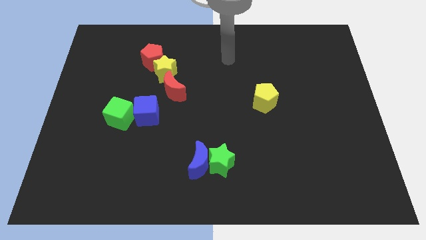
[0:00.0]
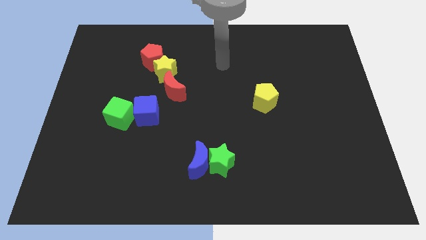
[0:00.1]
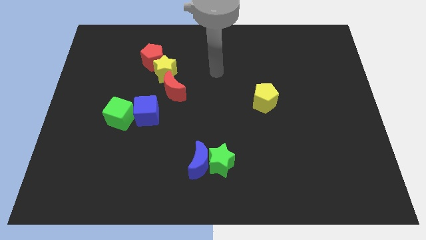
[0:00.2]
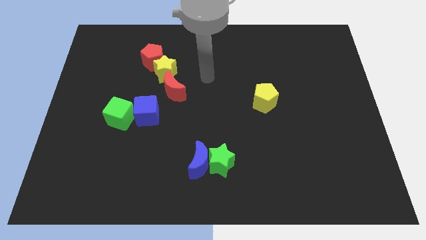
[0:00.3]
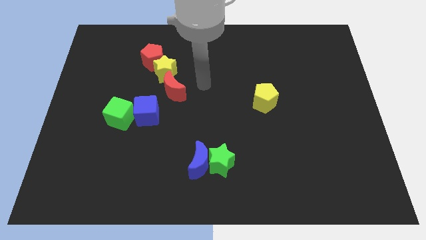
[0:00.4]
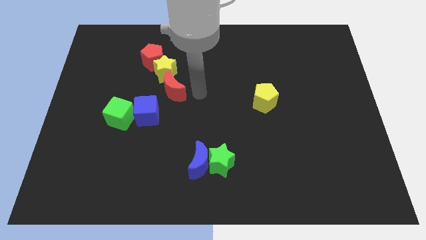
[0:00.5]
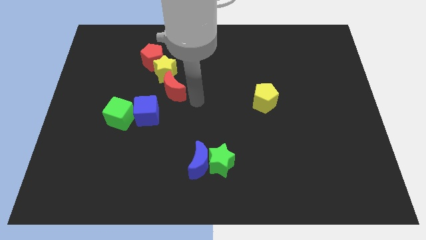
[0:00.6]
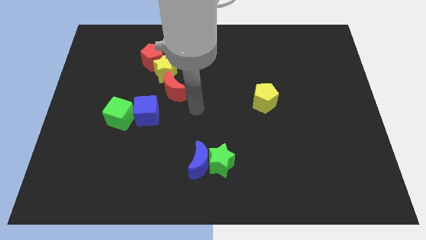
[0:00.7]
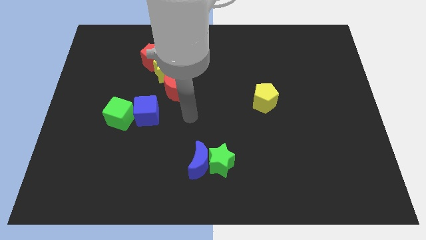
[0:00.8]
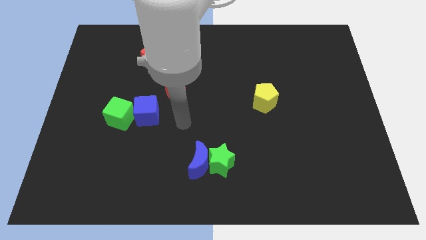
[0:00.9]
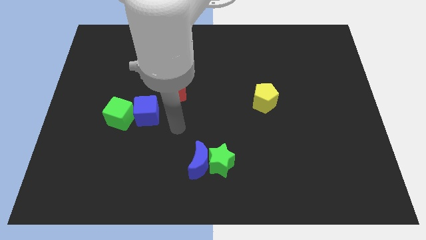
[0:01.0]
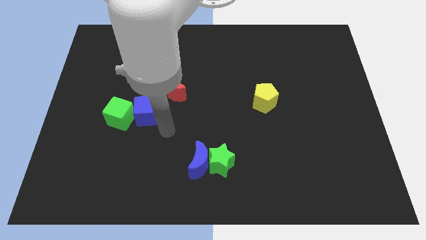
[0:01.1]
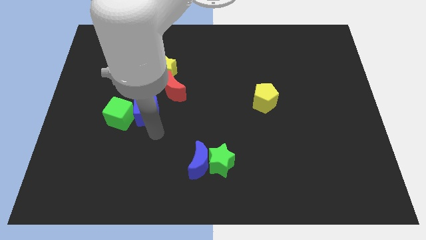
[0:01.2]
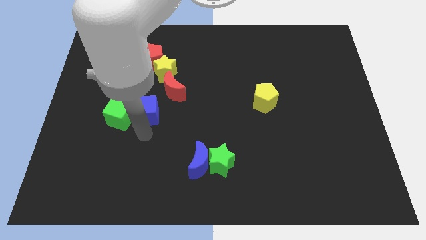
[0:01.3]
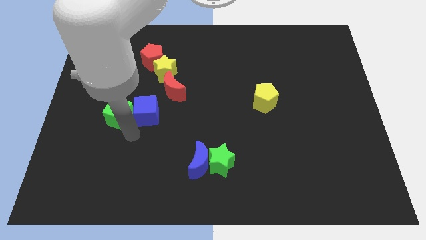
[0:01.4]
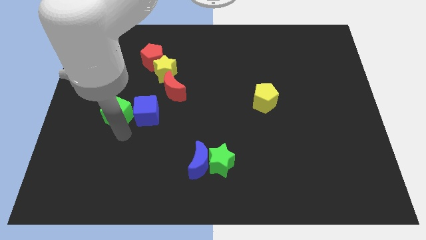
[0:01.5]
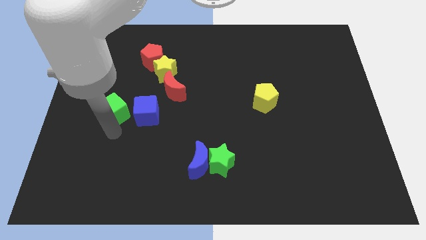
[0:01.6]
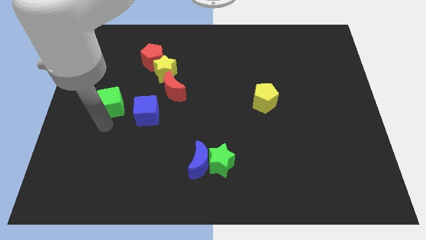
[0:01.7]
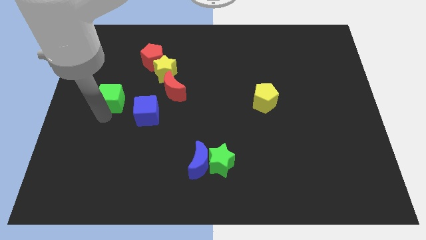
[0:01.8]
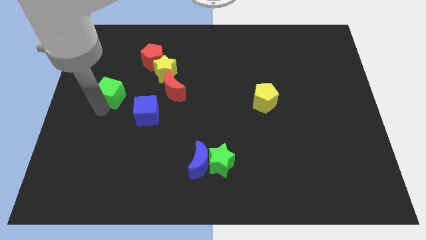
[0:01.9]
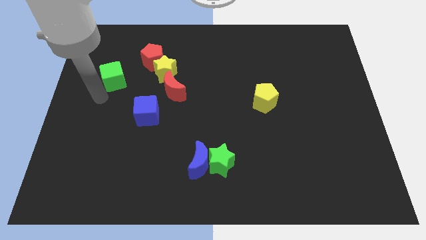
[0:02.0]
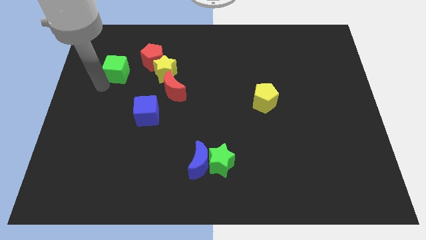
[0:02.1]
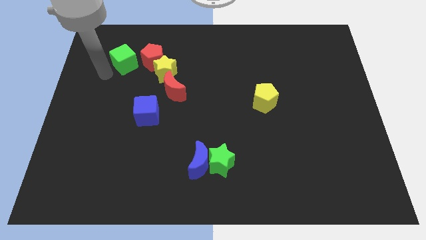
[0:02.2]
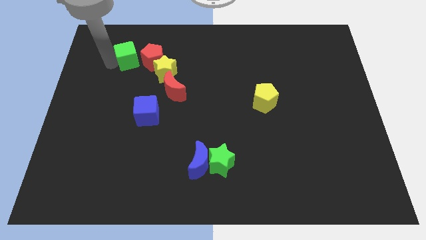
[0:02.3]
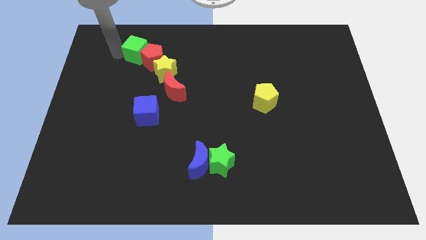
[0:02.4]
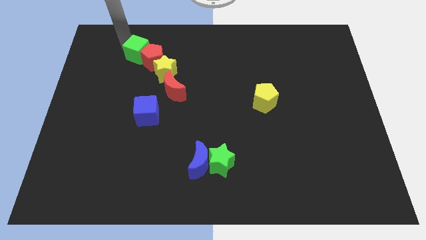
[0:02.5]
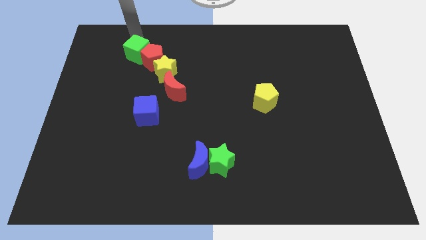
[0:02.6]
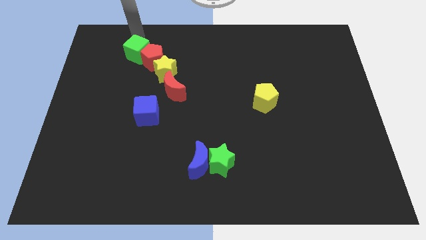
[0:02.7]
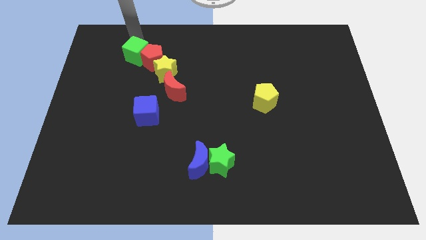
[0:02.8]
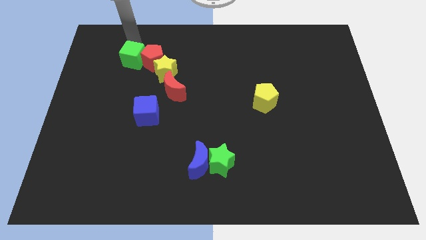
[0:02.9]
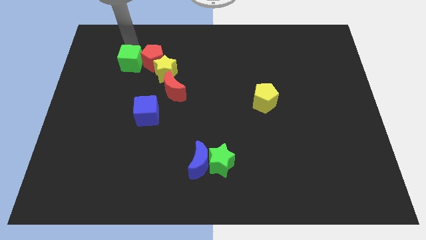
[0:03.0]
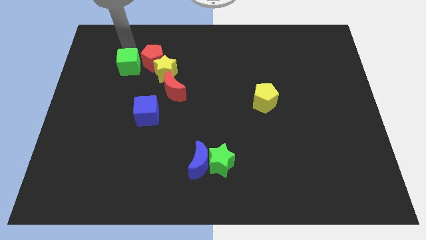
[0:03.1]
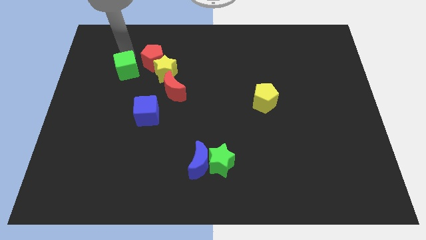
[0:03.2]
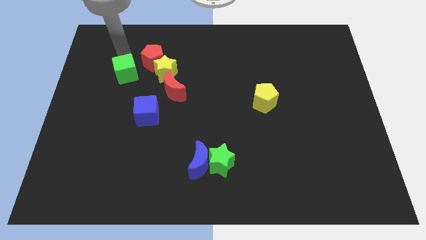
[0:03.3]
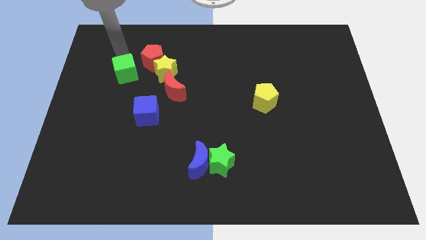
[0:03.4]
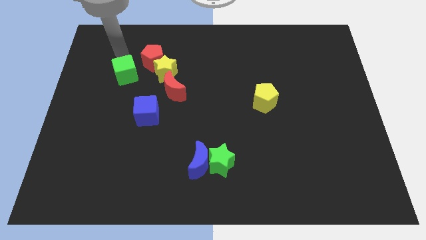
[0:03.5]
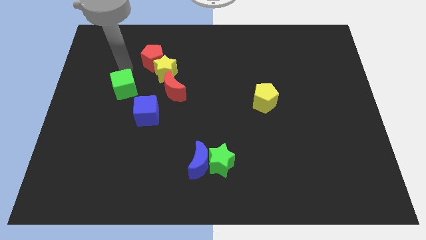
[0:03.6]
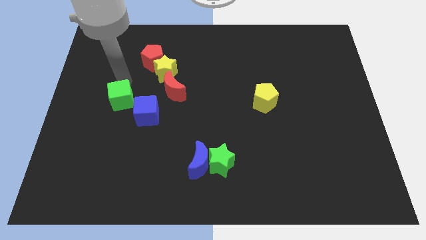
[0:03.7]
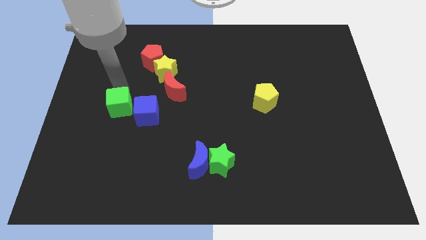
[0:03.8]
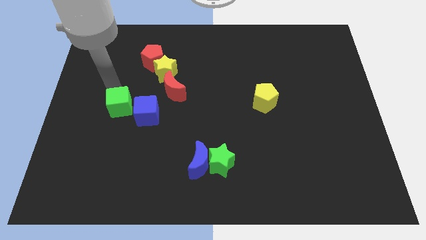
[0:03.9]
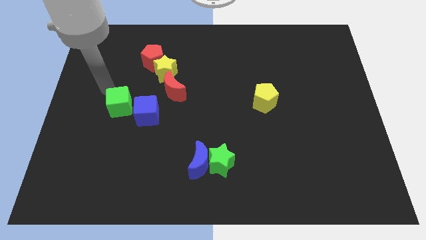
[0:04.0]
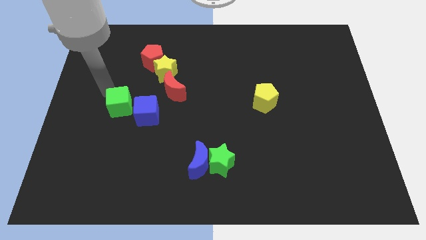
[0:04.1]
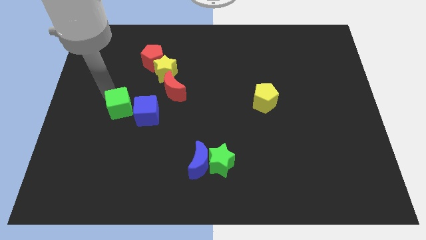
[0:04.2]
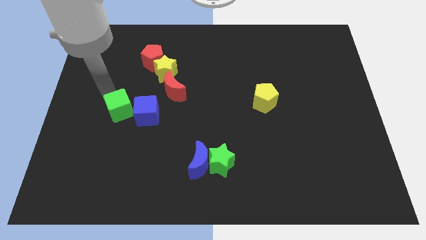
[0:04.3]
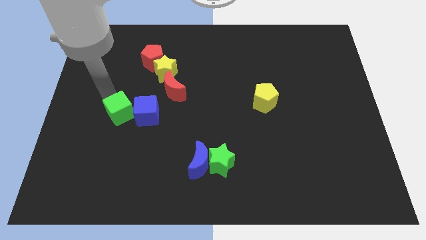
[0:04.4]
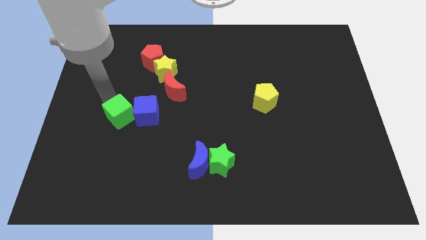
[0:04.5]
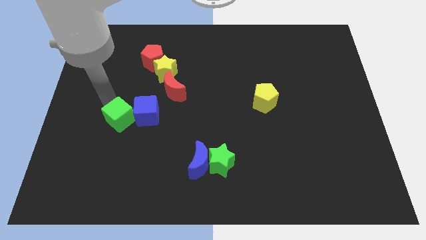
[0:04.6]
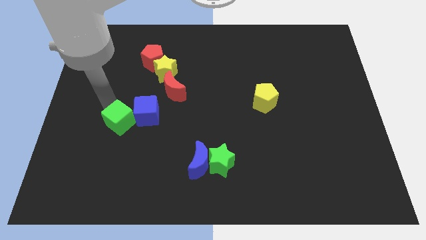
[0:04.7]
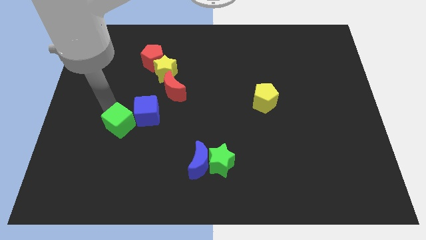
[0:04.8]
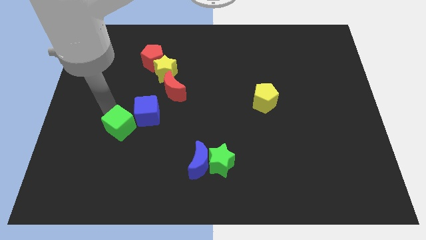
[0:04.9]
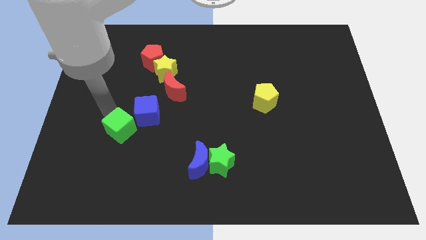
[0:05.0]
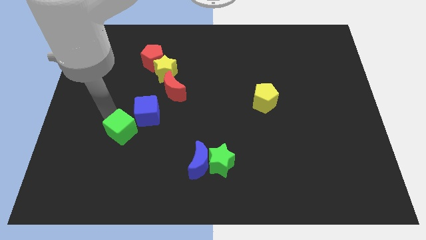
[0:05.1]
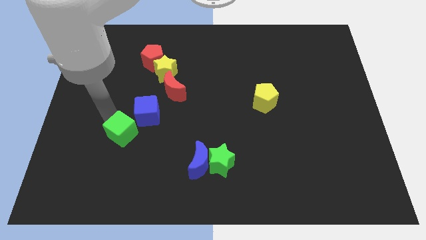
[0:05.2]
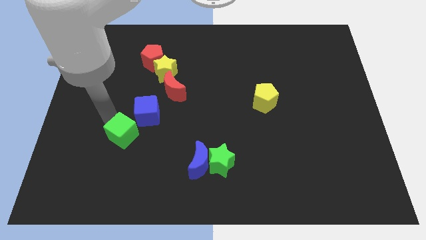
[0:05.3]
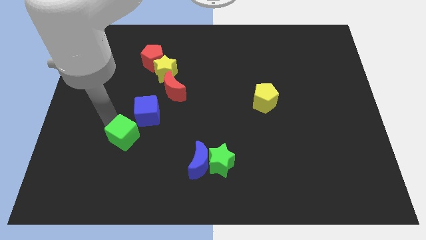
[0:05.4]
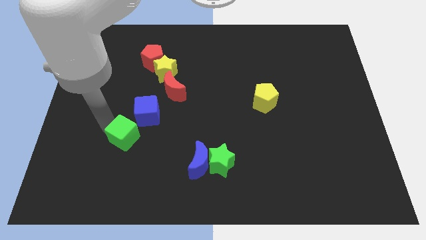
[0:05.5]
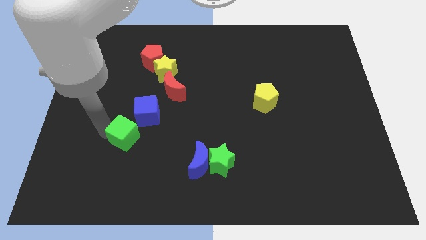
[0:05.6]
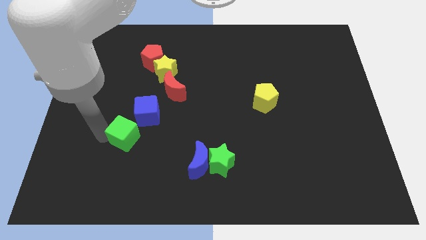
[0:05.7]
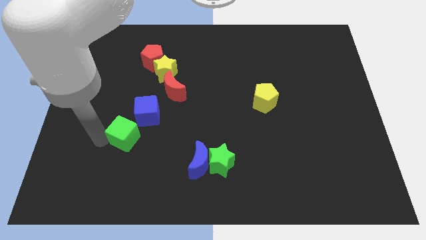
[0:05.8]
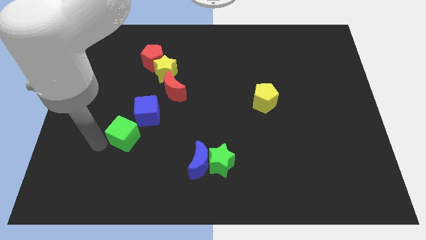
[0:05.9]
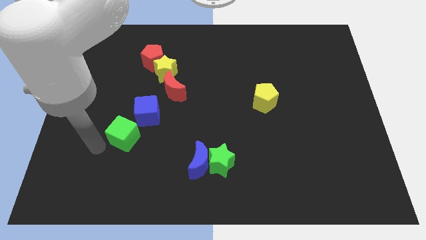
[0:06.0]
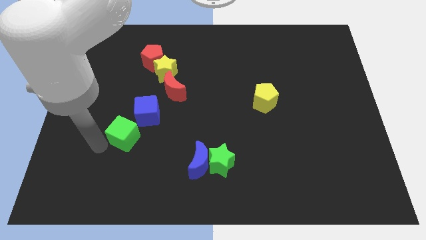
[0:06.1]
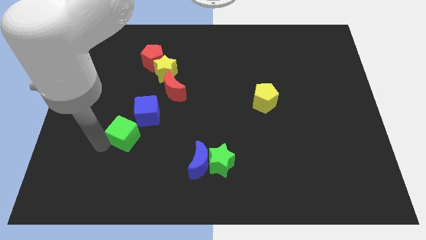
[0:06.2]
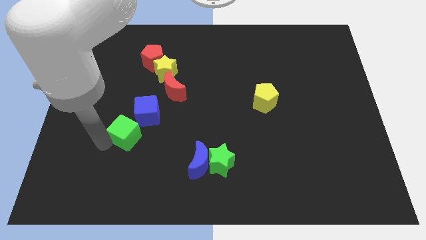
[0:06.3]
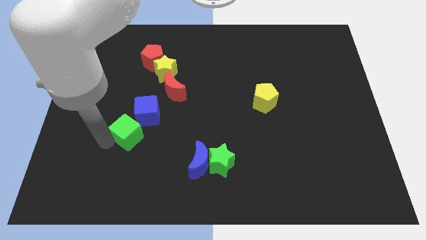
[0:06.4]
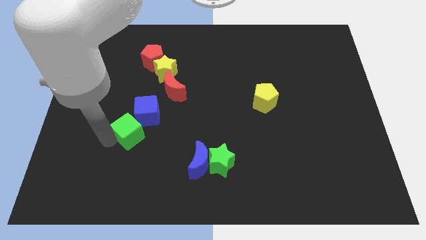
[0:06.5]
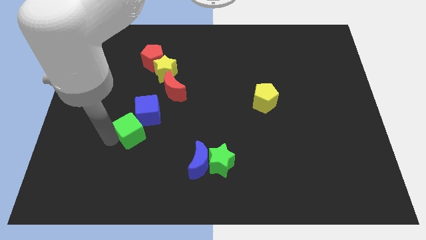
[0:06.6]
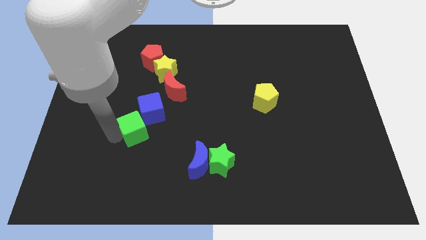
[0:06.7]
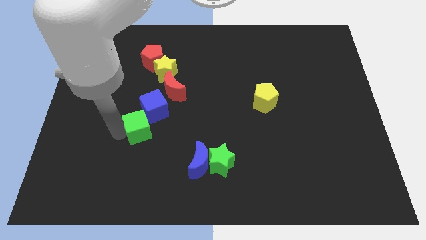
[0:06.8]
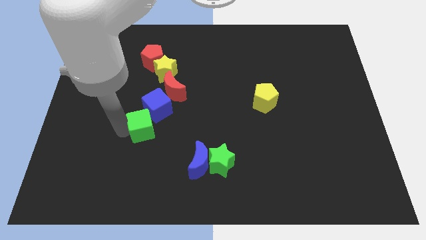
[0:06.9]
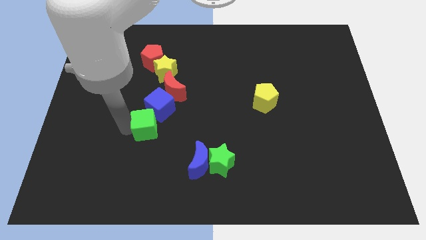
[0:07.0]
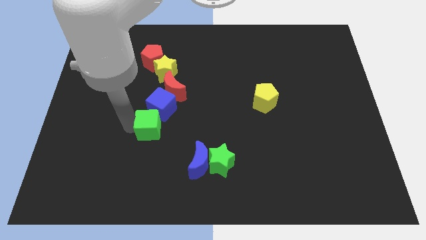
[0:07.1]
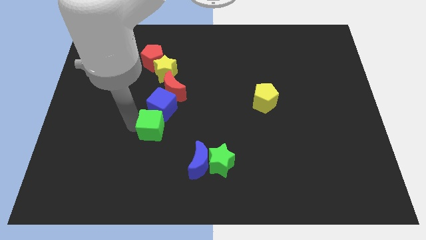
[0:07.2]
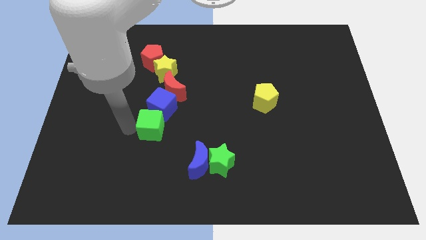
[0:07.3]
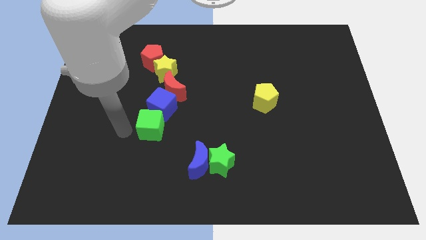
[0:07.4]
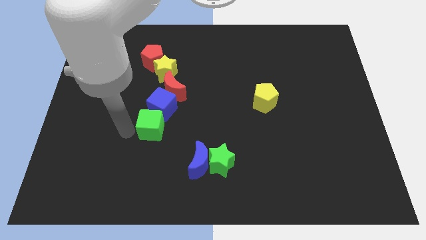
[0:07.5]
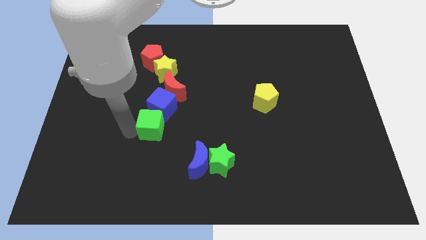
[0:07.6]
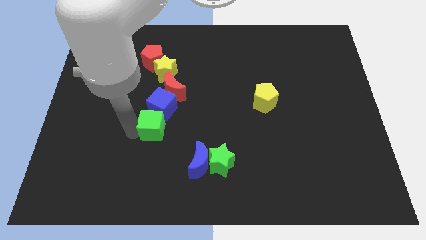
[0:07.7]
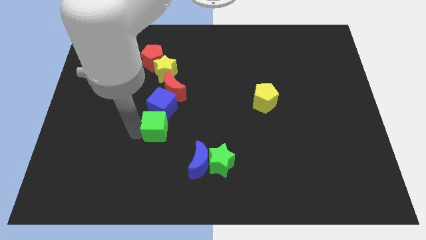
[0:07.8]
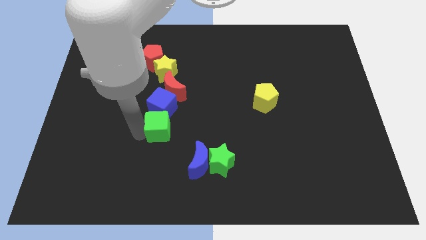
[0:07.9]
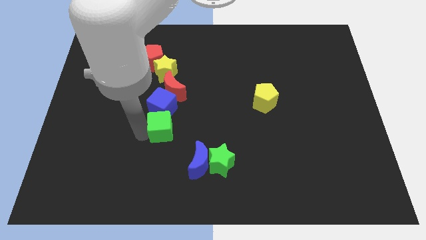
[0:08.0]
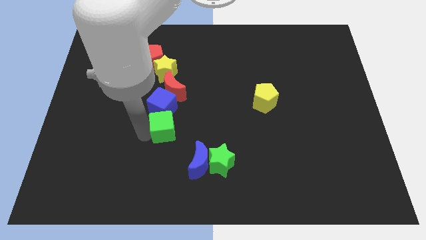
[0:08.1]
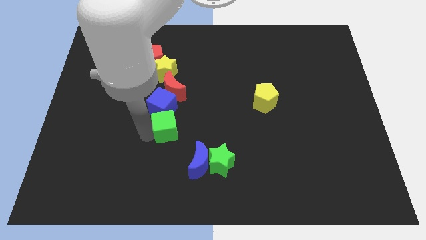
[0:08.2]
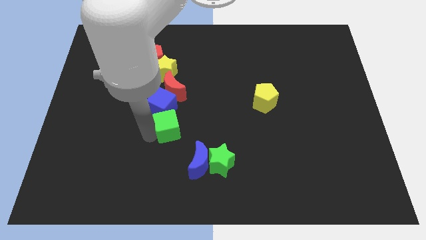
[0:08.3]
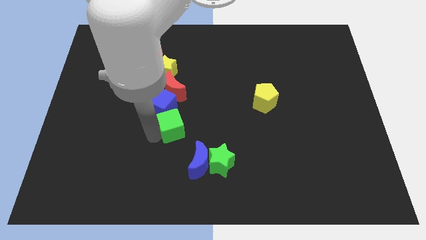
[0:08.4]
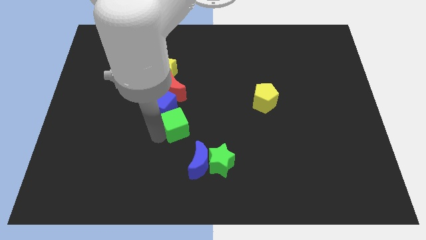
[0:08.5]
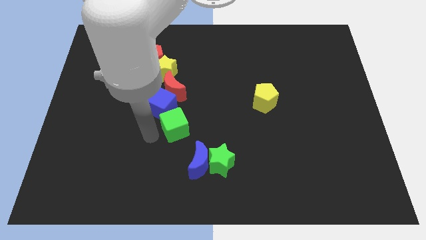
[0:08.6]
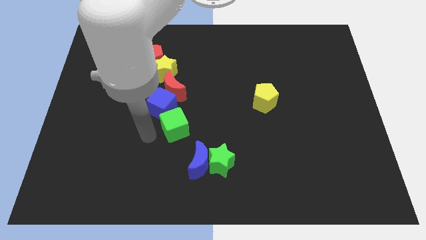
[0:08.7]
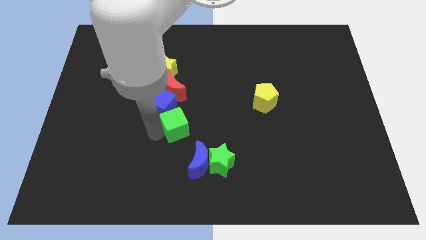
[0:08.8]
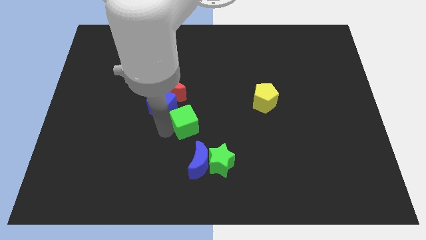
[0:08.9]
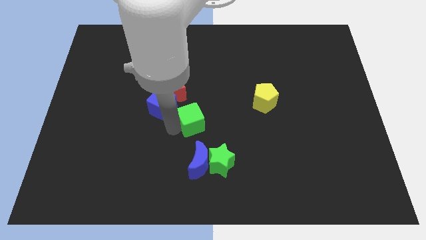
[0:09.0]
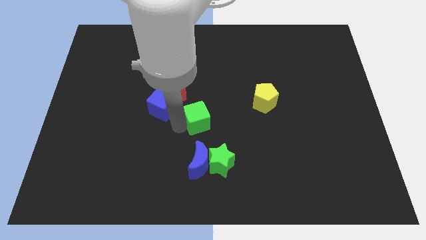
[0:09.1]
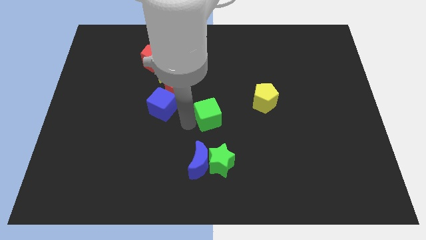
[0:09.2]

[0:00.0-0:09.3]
move the green cube to the right
